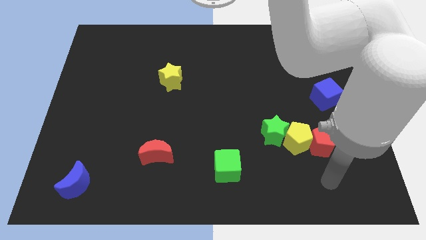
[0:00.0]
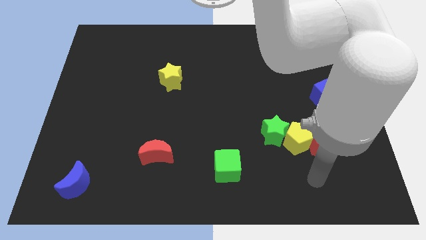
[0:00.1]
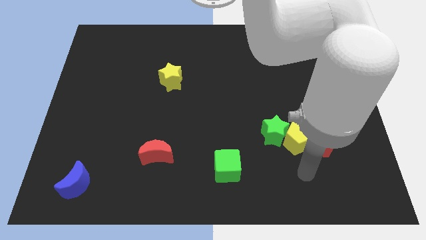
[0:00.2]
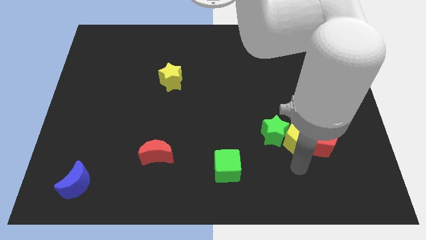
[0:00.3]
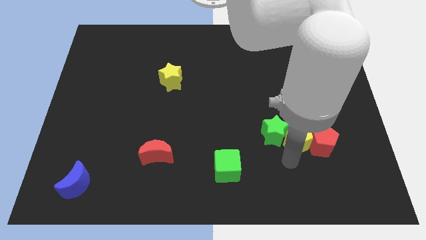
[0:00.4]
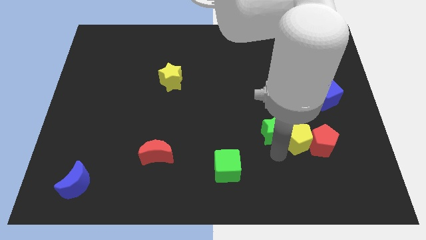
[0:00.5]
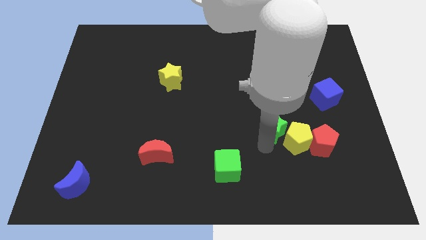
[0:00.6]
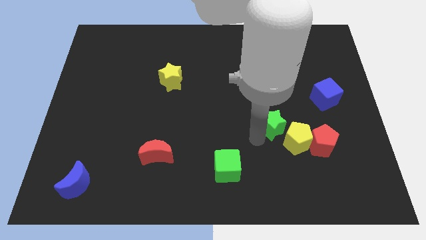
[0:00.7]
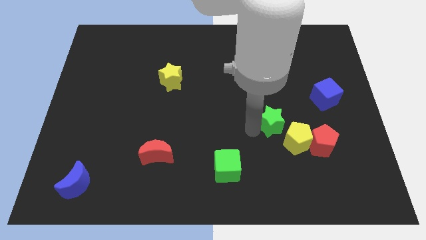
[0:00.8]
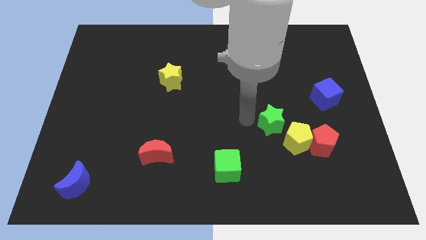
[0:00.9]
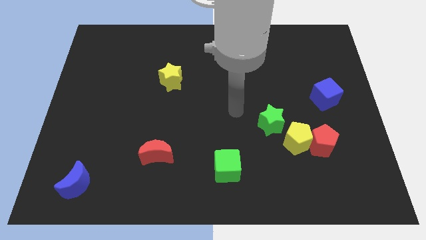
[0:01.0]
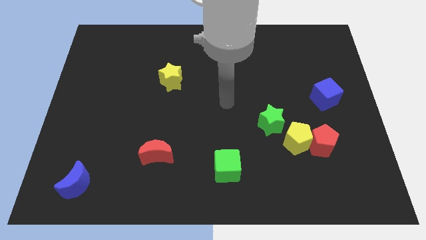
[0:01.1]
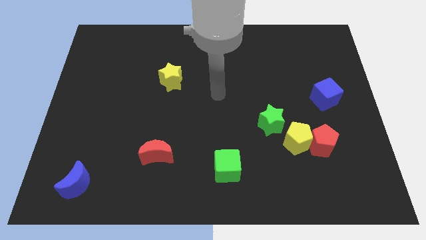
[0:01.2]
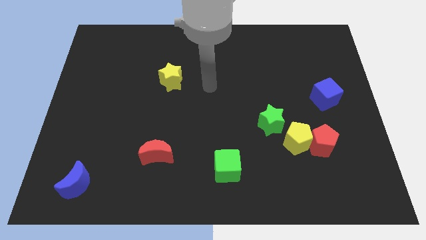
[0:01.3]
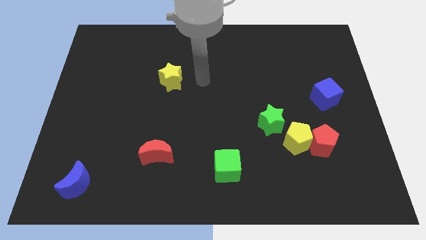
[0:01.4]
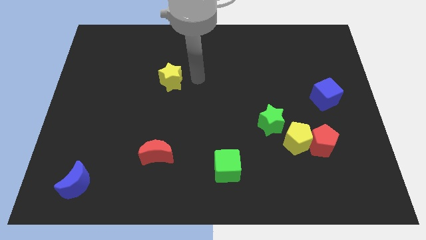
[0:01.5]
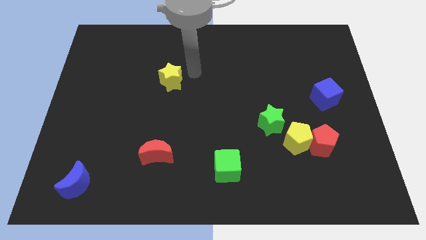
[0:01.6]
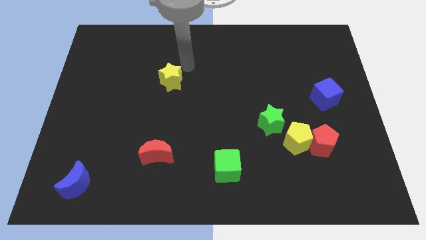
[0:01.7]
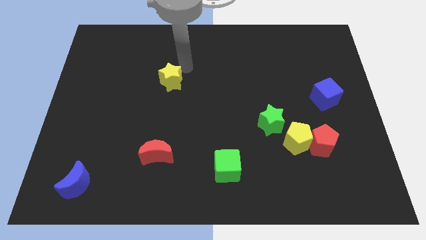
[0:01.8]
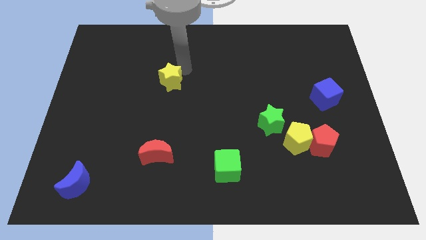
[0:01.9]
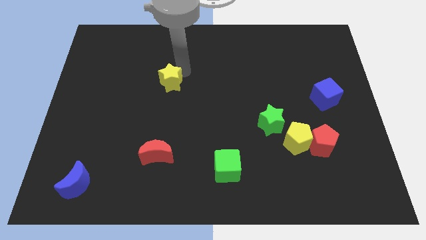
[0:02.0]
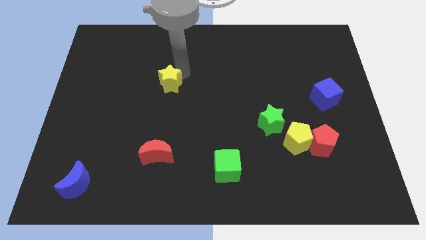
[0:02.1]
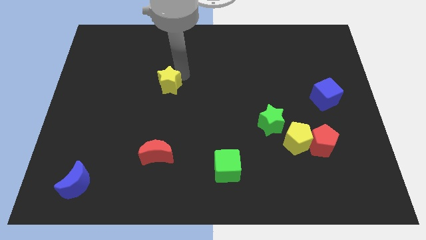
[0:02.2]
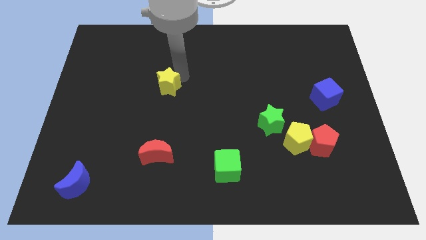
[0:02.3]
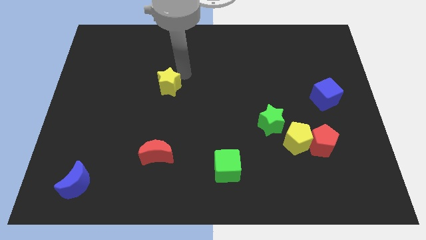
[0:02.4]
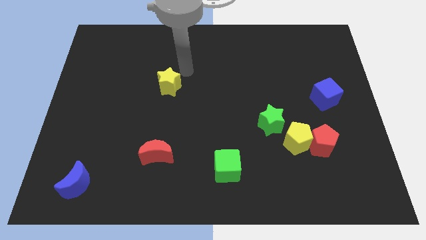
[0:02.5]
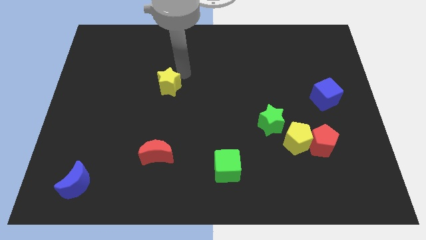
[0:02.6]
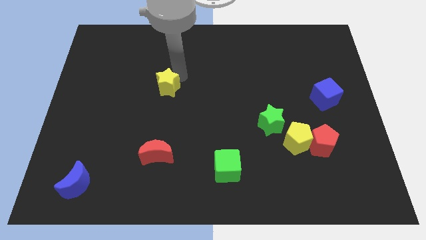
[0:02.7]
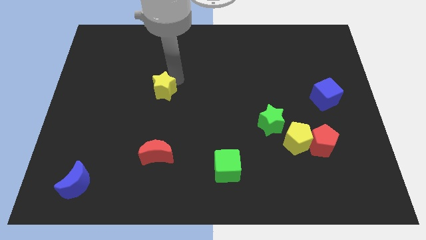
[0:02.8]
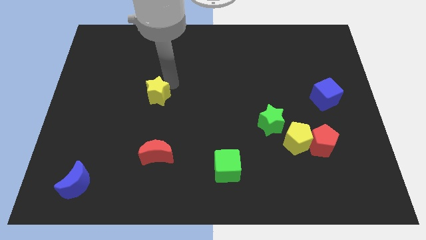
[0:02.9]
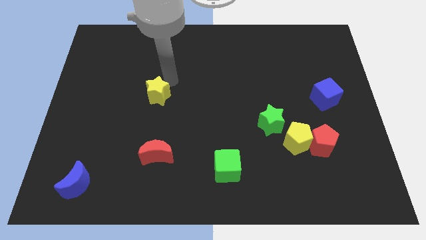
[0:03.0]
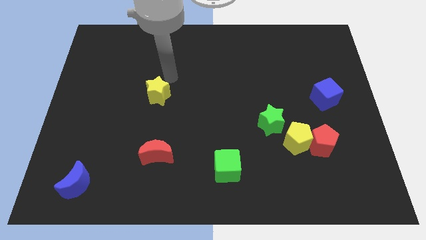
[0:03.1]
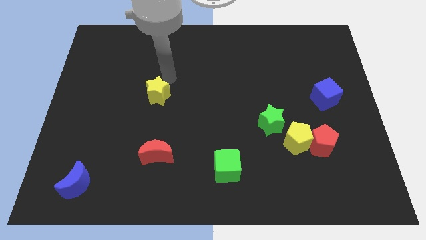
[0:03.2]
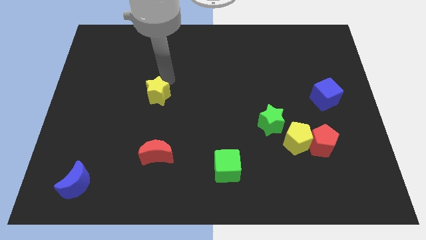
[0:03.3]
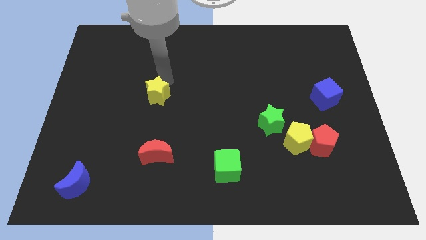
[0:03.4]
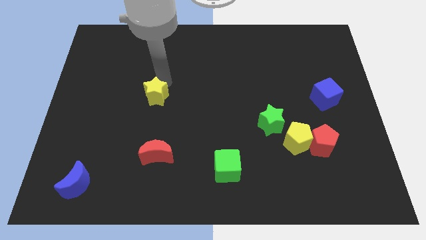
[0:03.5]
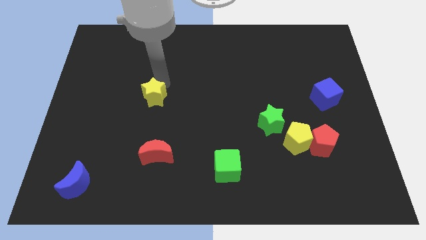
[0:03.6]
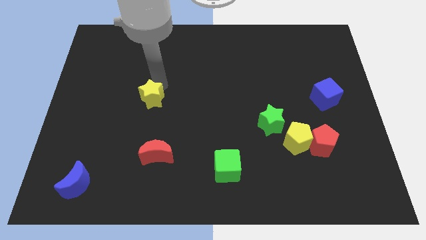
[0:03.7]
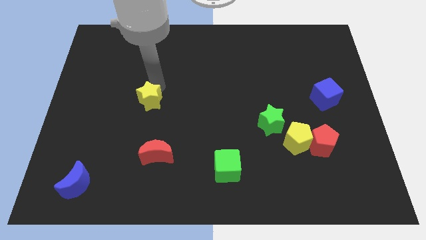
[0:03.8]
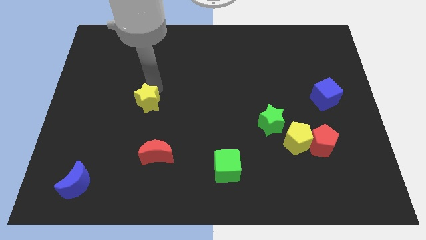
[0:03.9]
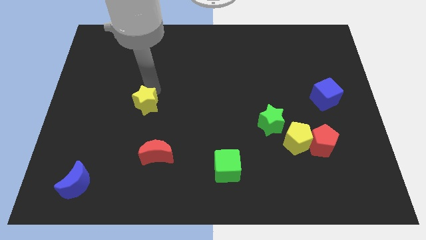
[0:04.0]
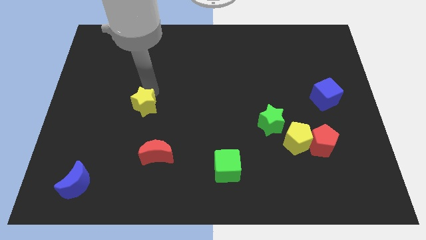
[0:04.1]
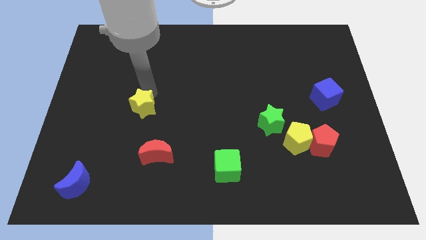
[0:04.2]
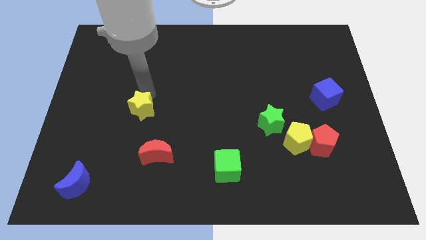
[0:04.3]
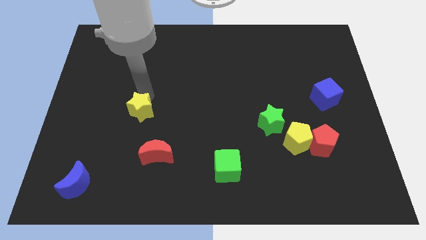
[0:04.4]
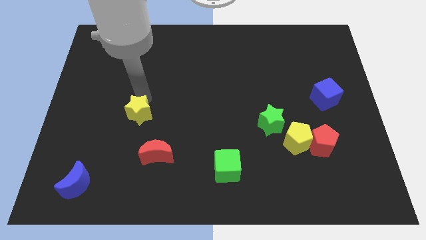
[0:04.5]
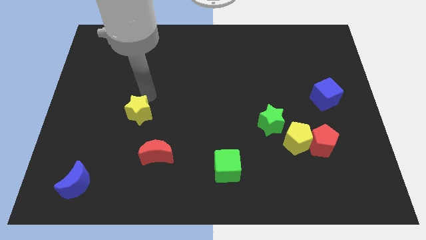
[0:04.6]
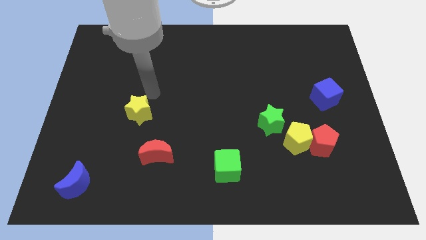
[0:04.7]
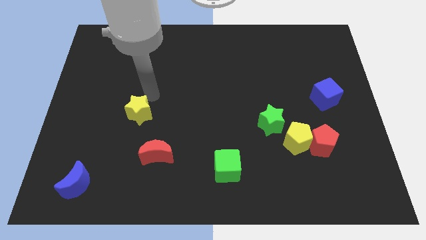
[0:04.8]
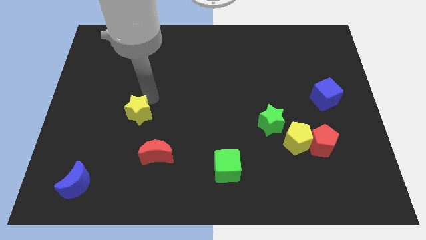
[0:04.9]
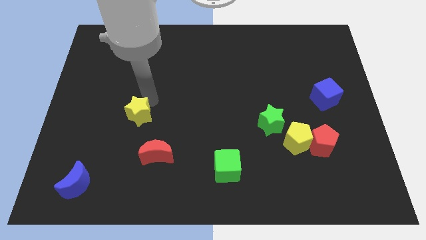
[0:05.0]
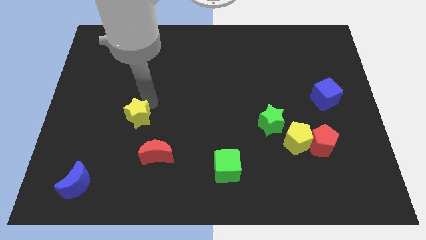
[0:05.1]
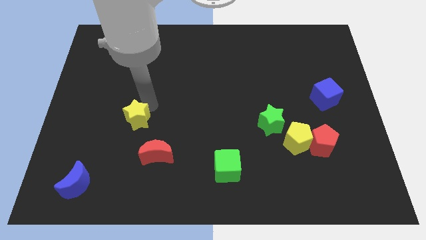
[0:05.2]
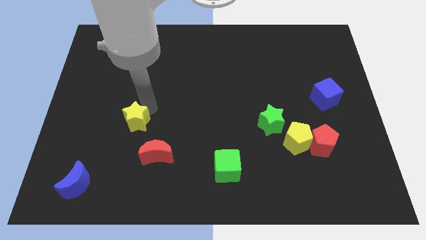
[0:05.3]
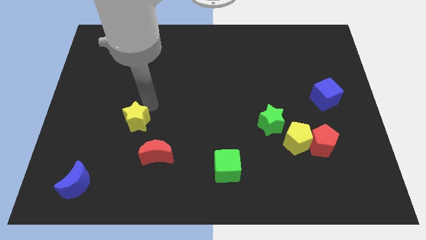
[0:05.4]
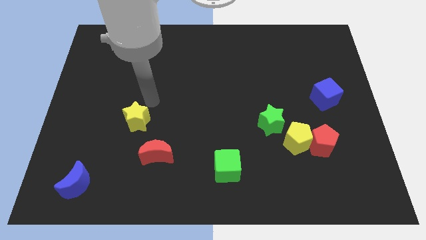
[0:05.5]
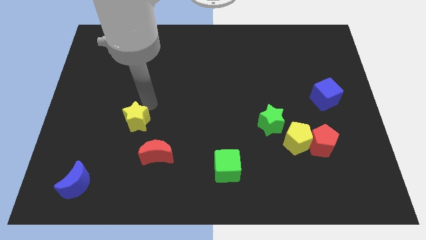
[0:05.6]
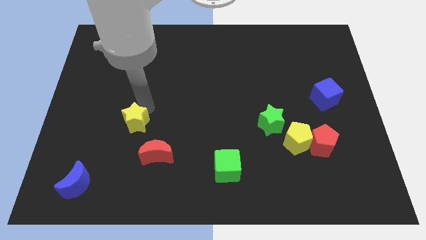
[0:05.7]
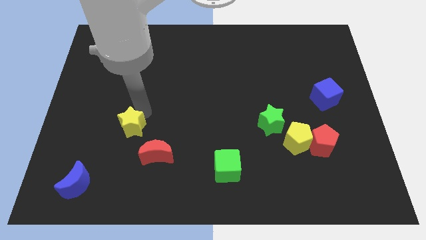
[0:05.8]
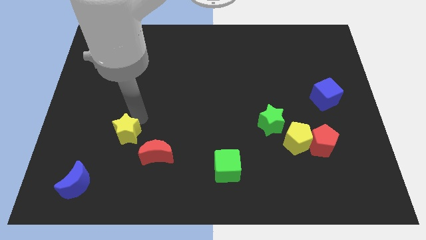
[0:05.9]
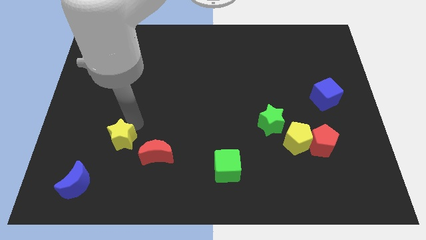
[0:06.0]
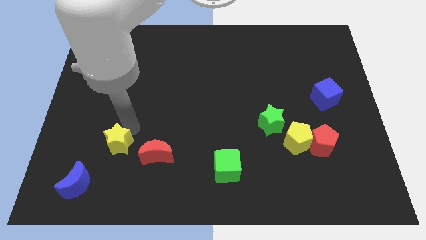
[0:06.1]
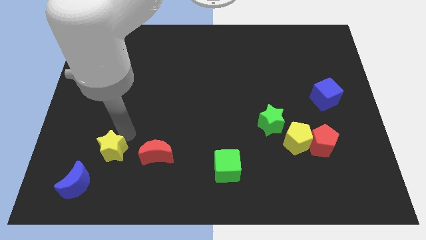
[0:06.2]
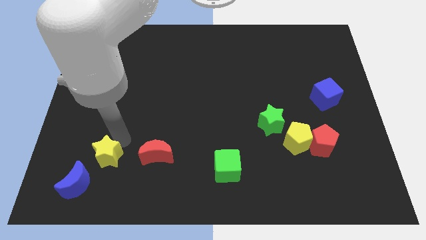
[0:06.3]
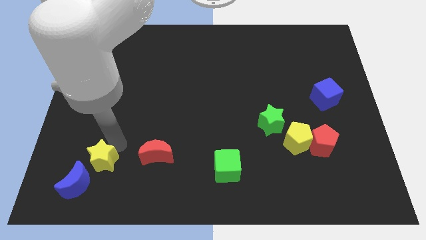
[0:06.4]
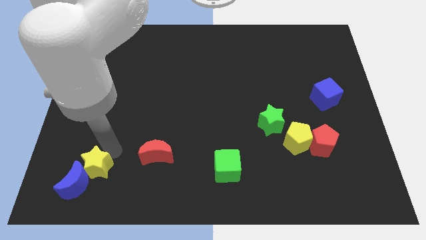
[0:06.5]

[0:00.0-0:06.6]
push the yellow star to the blue moon
